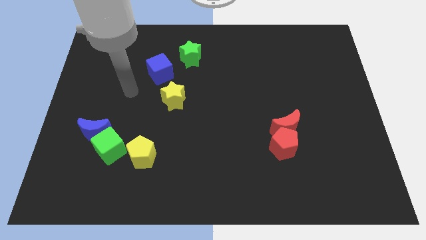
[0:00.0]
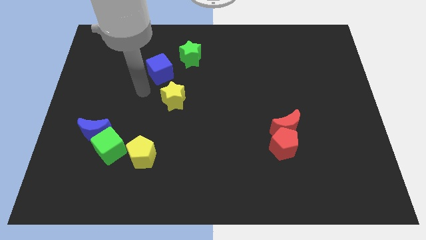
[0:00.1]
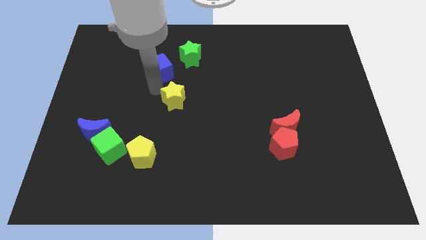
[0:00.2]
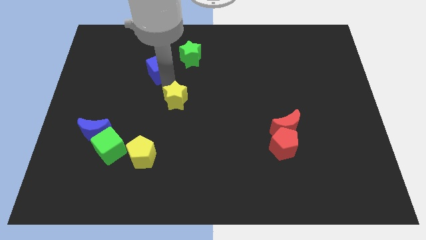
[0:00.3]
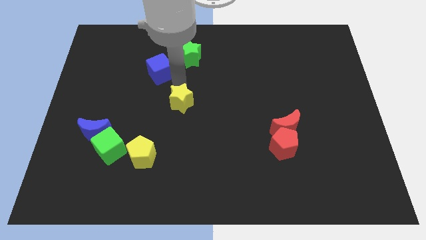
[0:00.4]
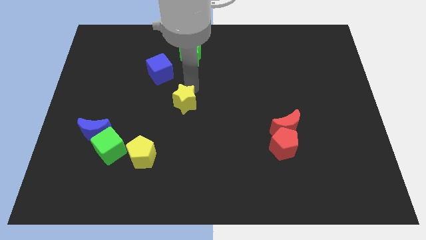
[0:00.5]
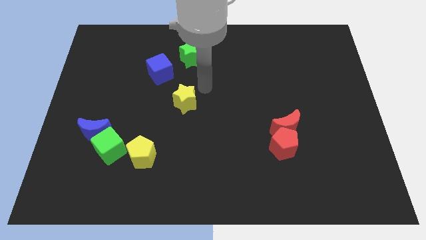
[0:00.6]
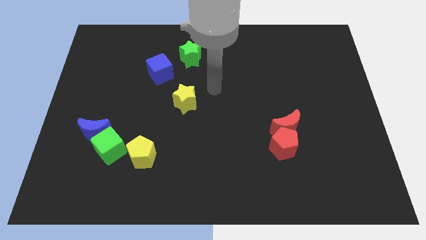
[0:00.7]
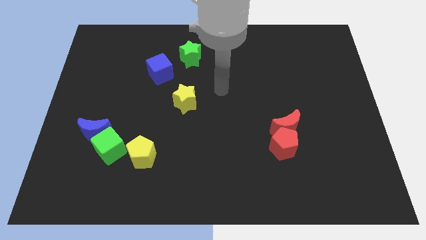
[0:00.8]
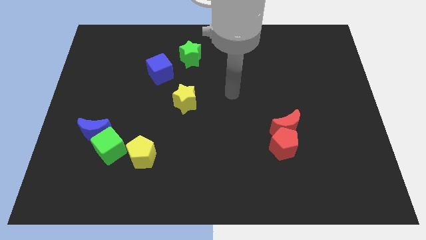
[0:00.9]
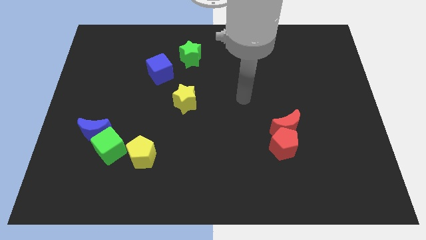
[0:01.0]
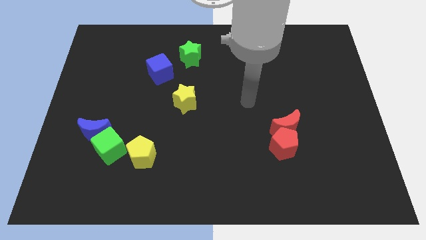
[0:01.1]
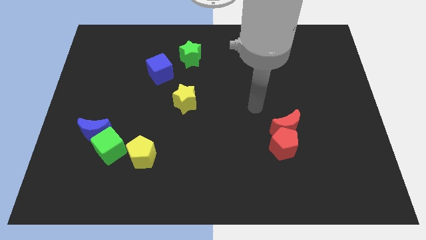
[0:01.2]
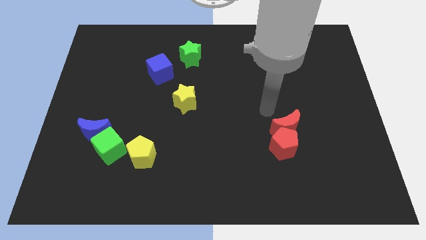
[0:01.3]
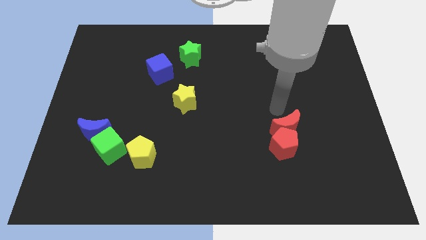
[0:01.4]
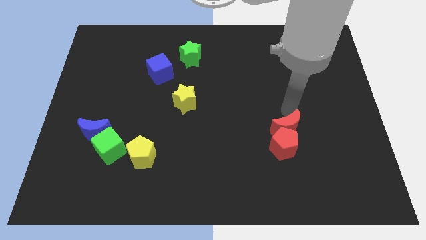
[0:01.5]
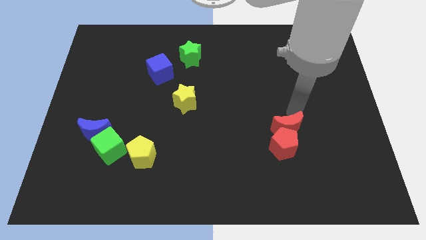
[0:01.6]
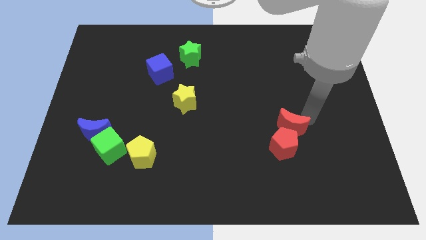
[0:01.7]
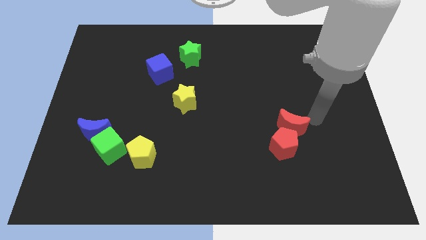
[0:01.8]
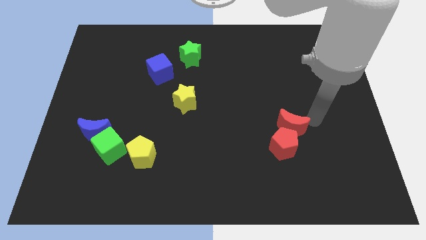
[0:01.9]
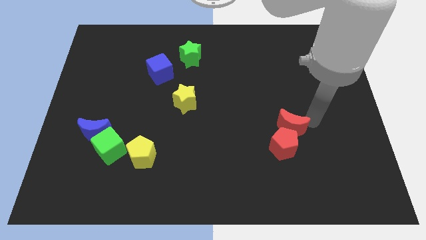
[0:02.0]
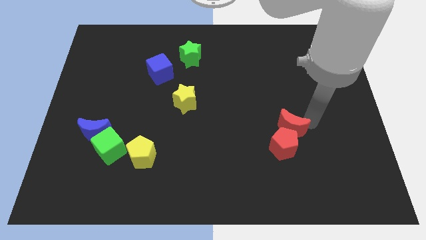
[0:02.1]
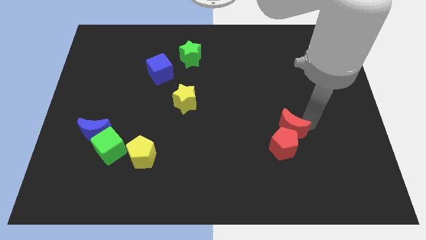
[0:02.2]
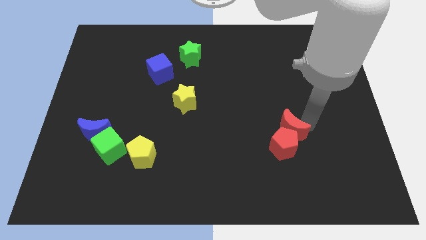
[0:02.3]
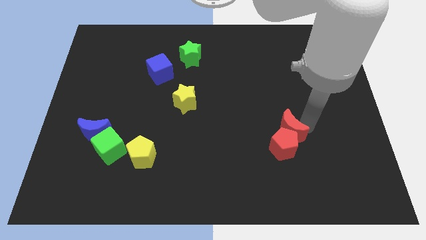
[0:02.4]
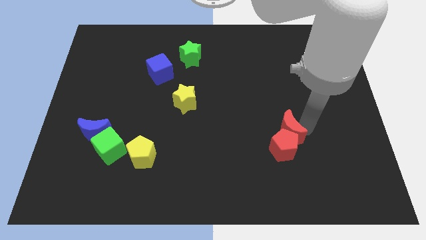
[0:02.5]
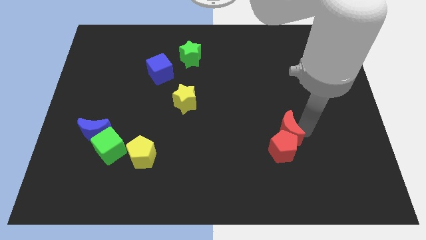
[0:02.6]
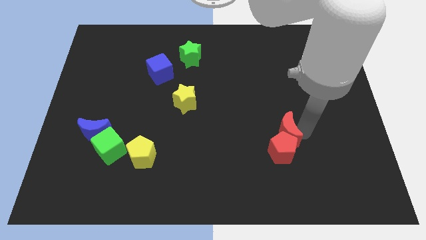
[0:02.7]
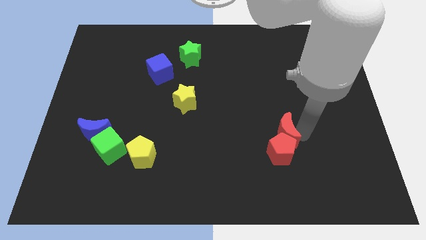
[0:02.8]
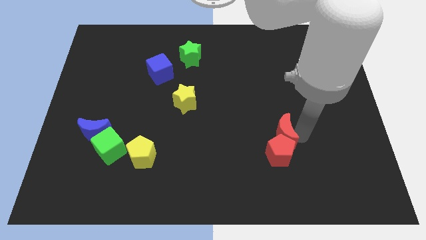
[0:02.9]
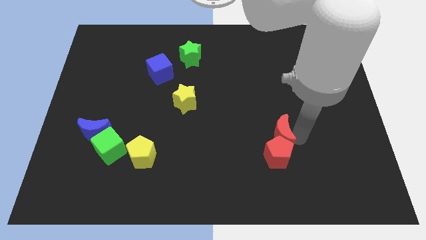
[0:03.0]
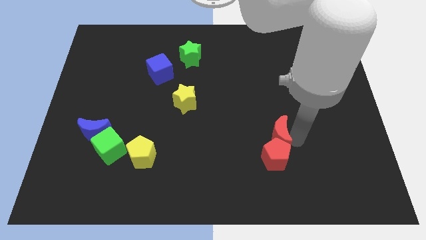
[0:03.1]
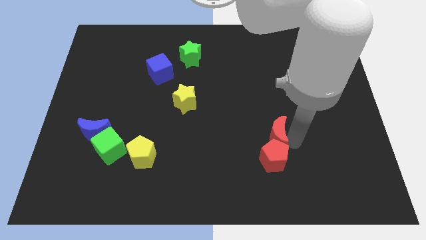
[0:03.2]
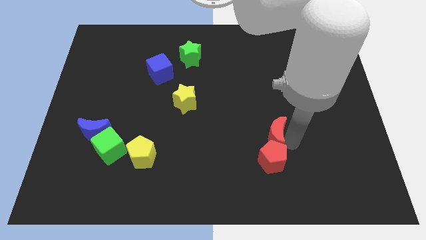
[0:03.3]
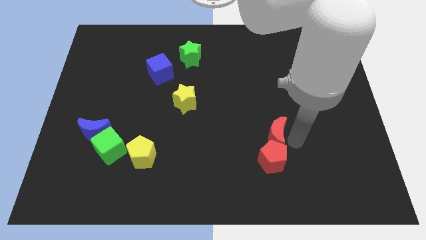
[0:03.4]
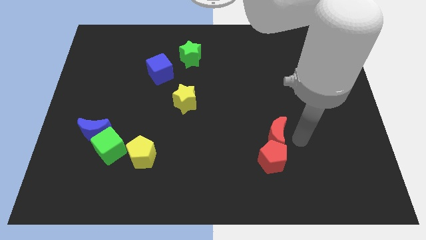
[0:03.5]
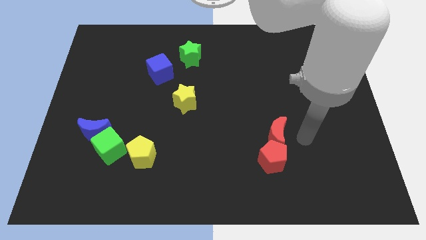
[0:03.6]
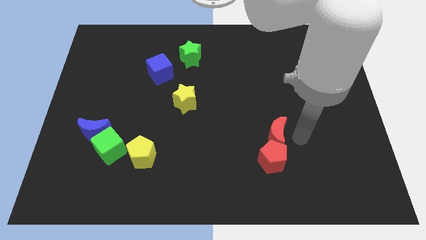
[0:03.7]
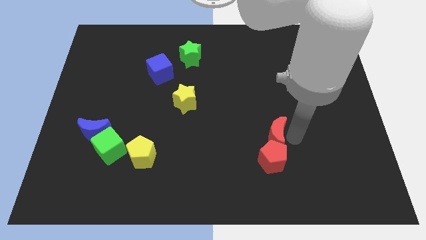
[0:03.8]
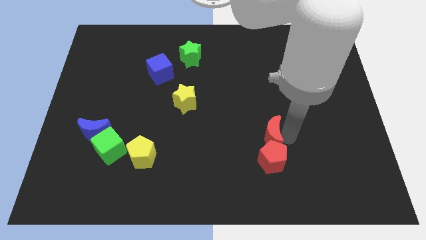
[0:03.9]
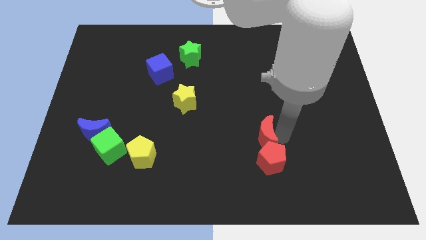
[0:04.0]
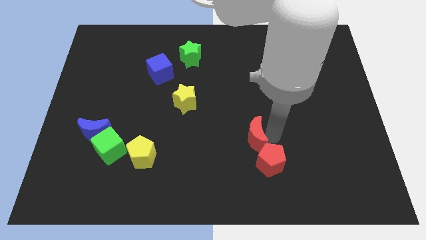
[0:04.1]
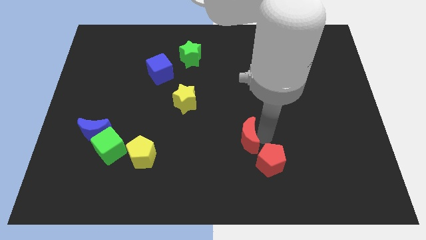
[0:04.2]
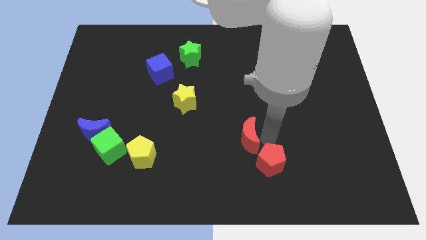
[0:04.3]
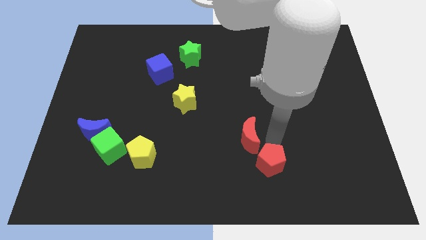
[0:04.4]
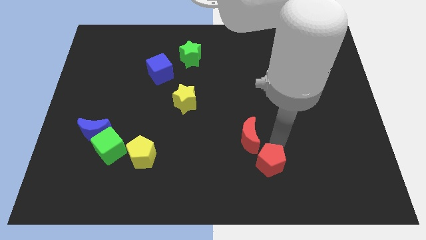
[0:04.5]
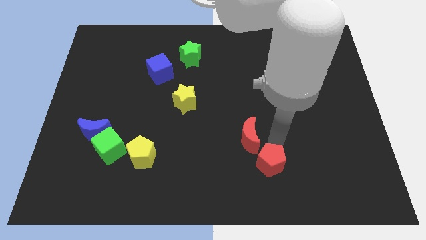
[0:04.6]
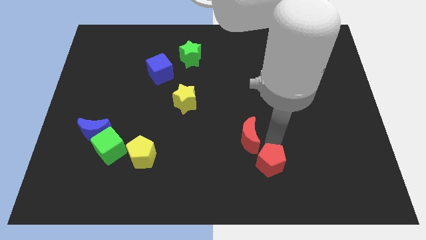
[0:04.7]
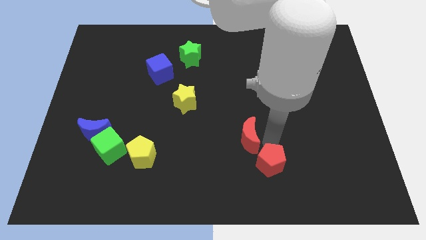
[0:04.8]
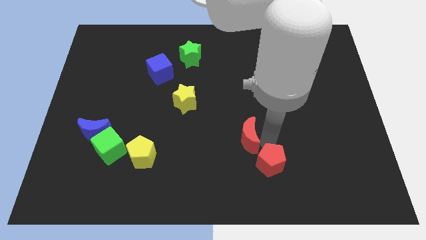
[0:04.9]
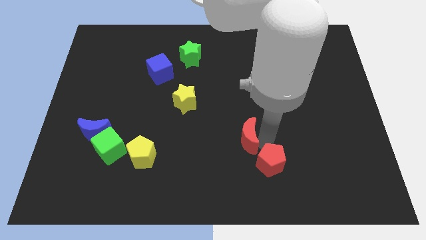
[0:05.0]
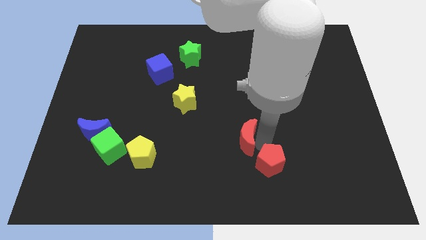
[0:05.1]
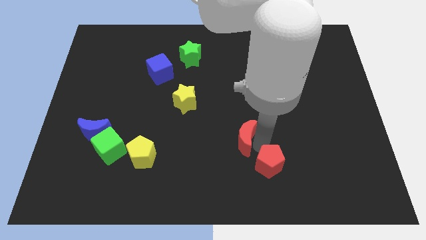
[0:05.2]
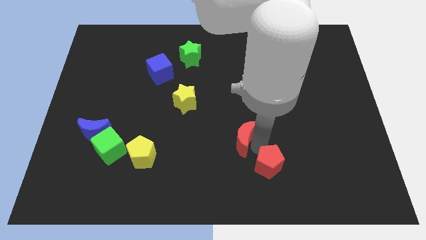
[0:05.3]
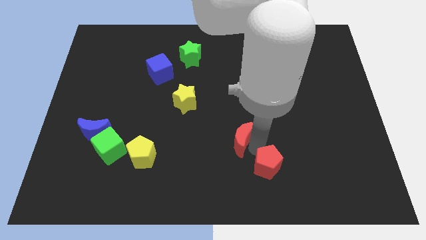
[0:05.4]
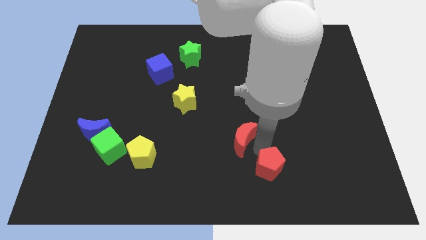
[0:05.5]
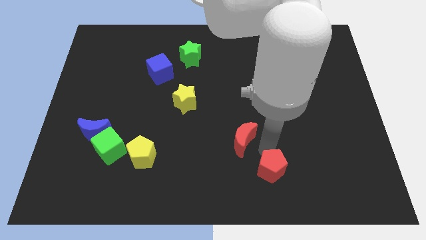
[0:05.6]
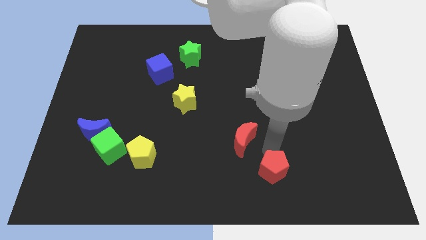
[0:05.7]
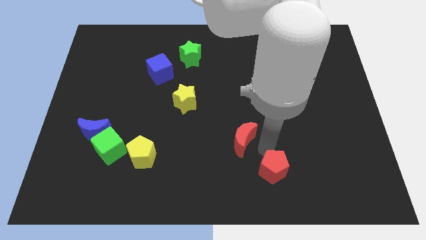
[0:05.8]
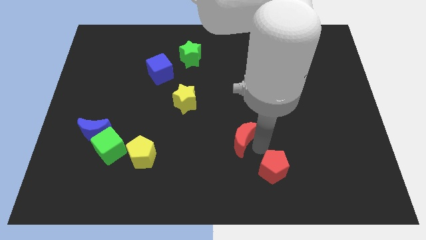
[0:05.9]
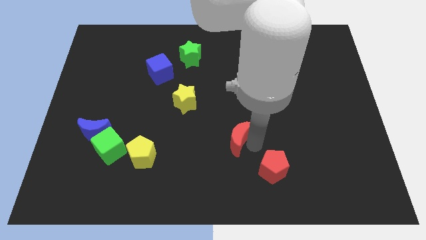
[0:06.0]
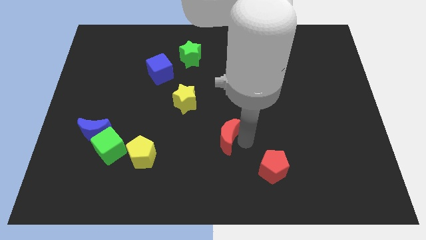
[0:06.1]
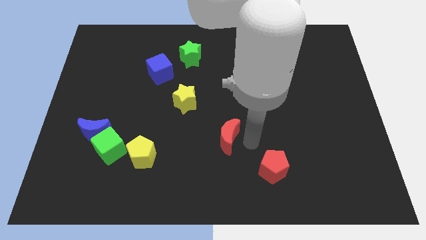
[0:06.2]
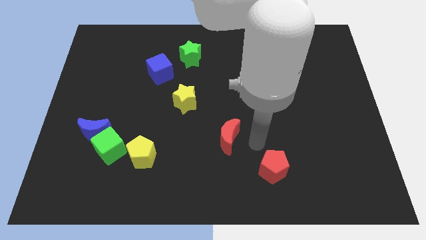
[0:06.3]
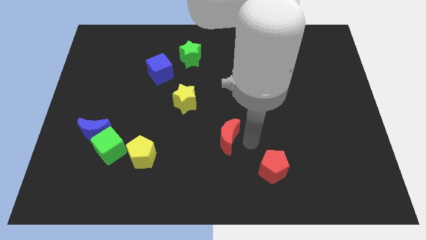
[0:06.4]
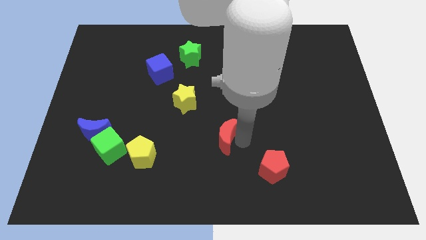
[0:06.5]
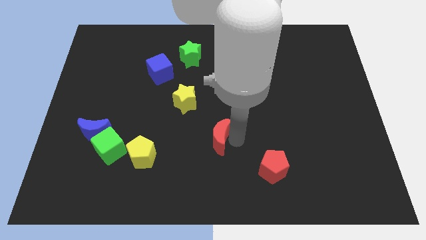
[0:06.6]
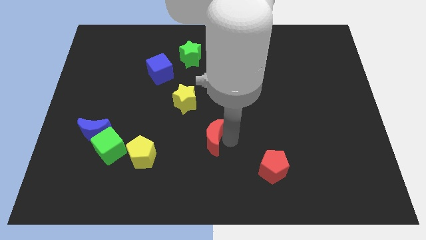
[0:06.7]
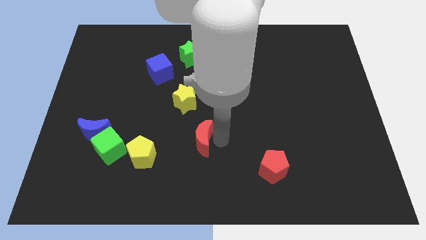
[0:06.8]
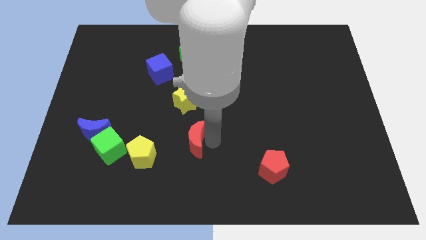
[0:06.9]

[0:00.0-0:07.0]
move the red moon to the left

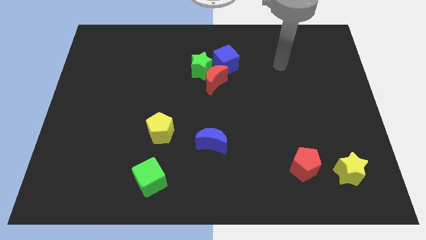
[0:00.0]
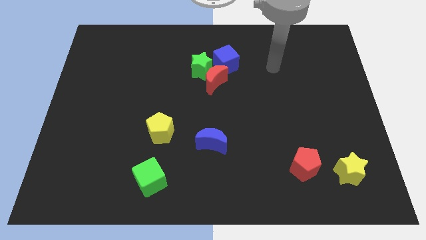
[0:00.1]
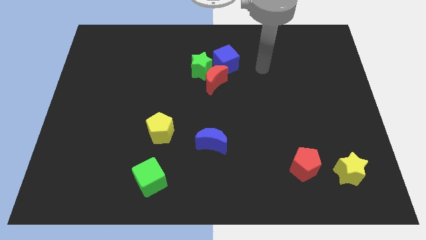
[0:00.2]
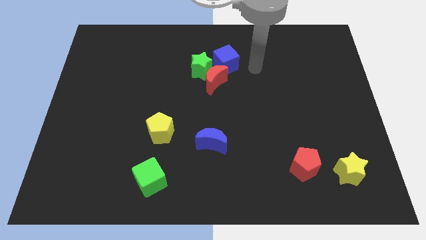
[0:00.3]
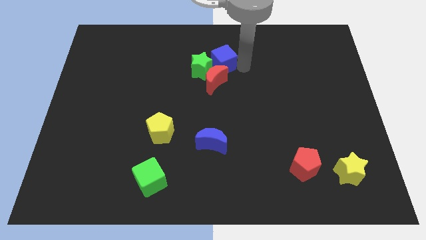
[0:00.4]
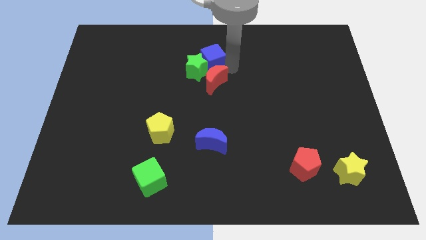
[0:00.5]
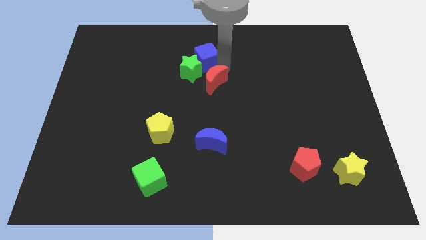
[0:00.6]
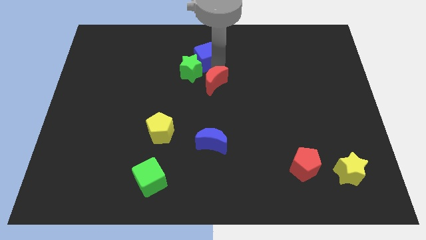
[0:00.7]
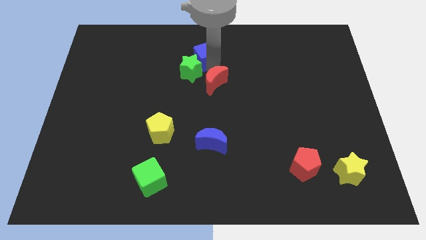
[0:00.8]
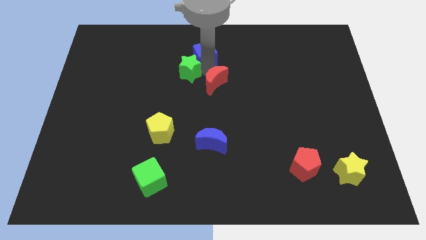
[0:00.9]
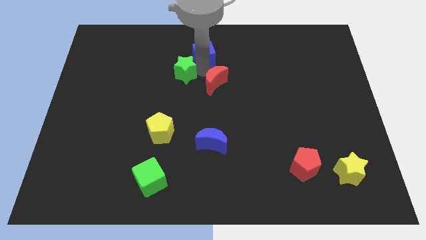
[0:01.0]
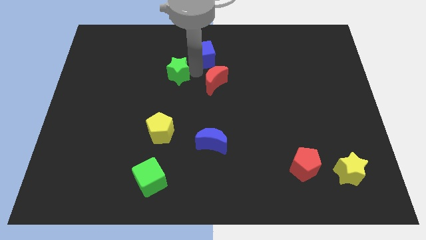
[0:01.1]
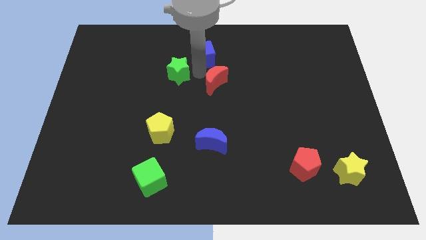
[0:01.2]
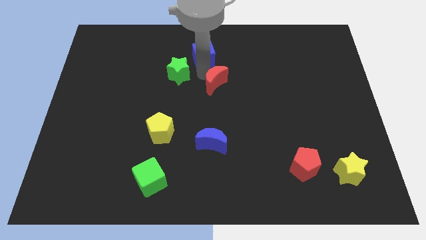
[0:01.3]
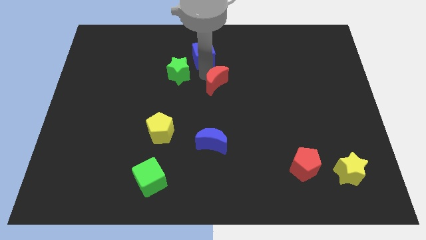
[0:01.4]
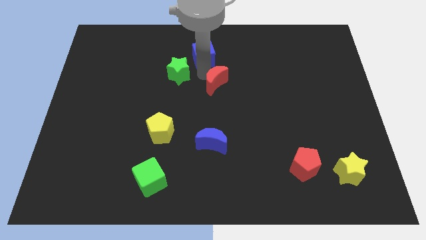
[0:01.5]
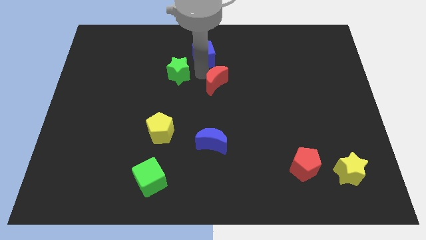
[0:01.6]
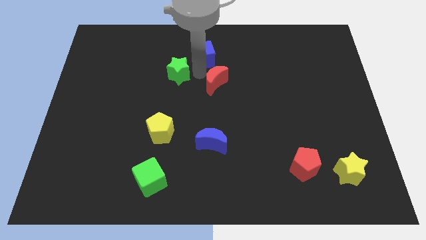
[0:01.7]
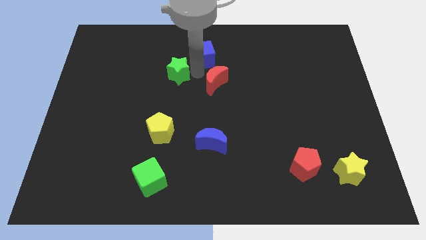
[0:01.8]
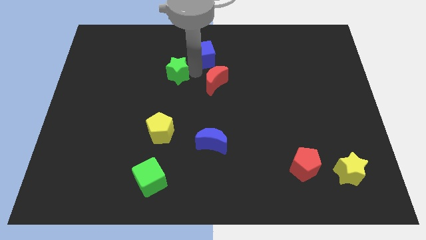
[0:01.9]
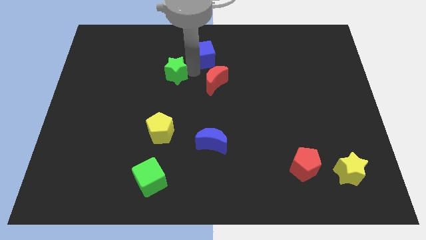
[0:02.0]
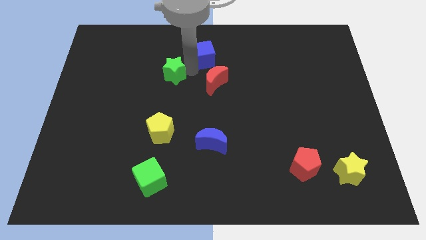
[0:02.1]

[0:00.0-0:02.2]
slightly slide the green star left
